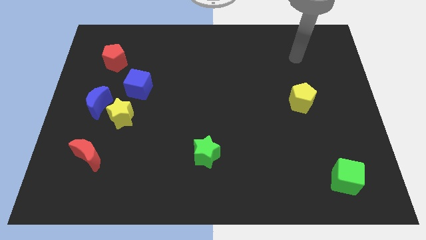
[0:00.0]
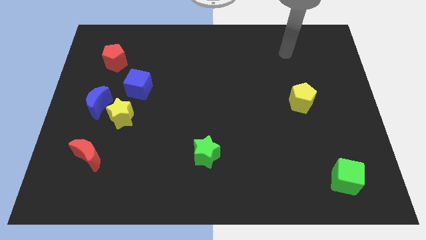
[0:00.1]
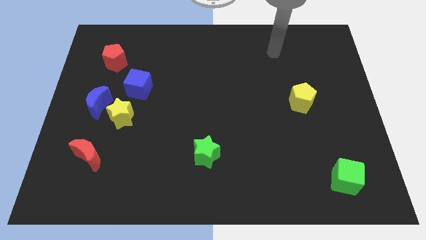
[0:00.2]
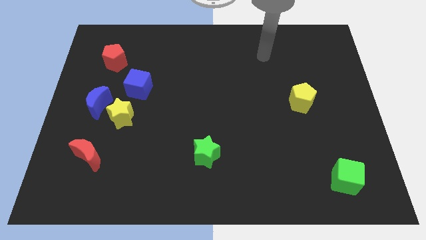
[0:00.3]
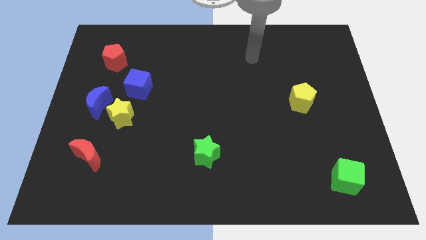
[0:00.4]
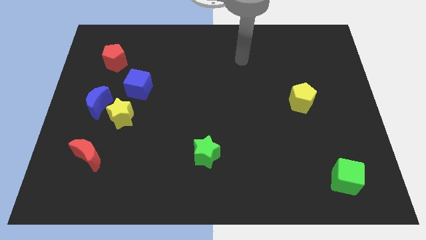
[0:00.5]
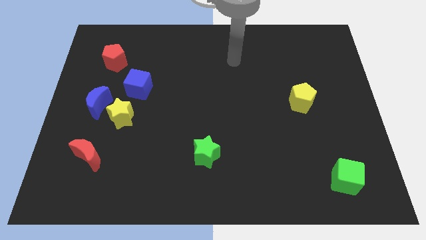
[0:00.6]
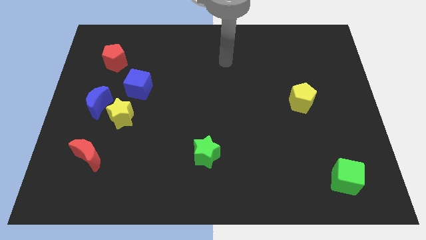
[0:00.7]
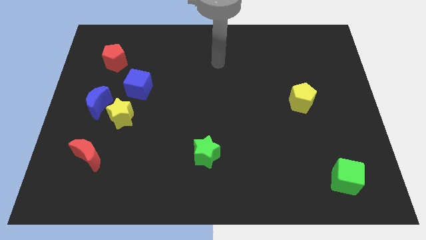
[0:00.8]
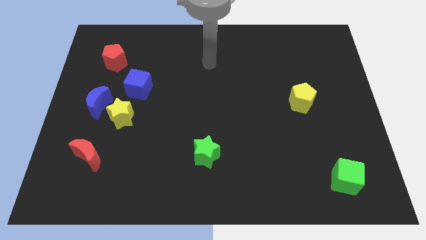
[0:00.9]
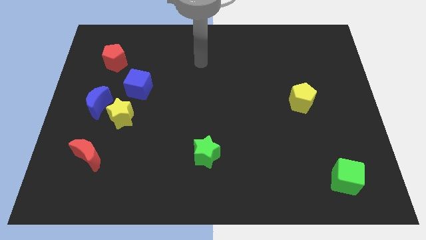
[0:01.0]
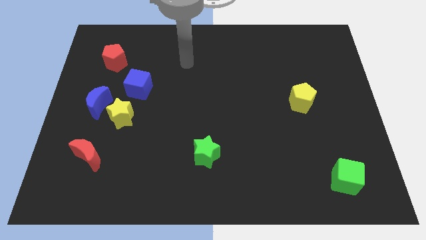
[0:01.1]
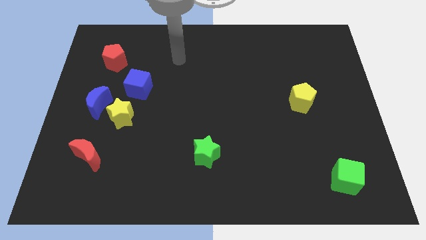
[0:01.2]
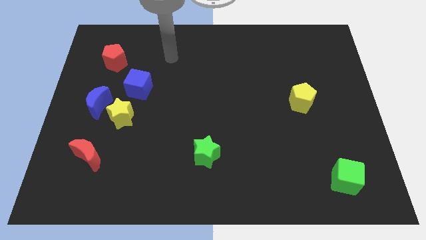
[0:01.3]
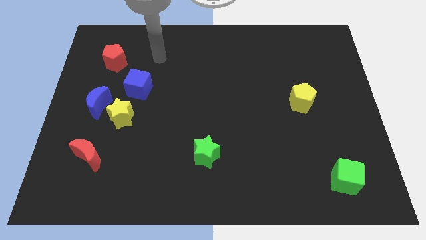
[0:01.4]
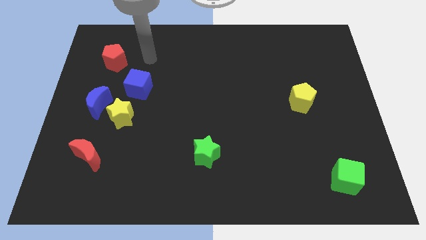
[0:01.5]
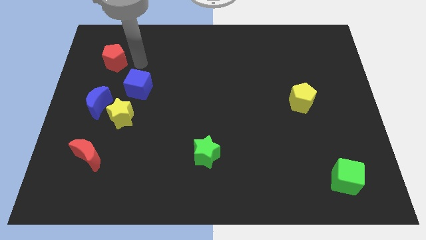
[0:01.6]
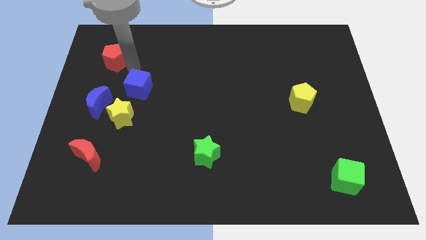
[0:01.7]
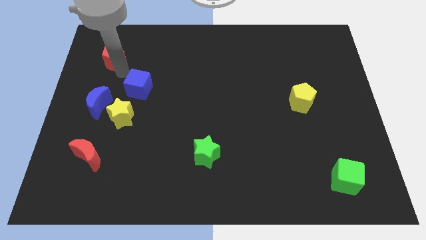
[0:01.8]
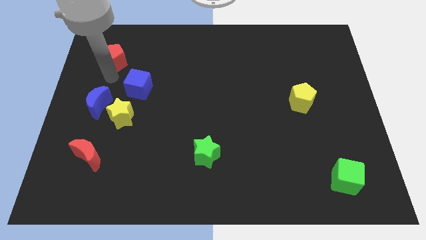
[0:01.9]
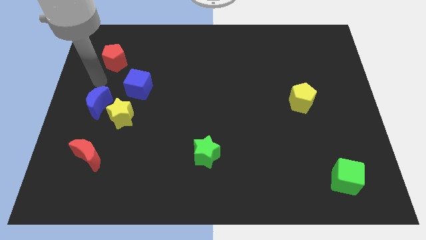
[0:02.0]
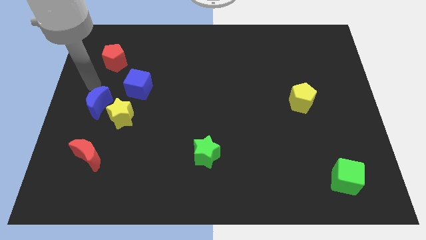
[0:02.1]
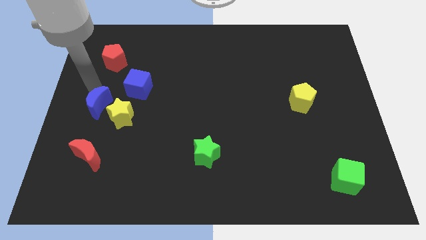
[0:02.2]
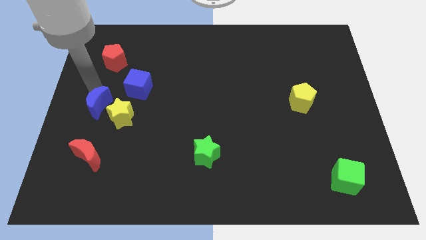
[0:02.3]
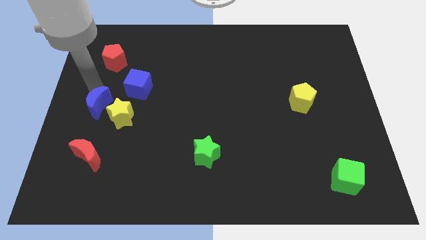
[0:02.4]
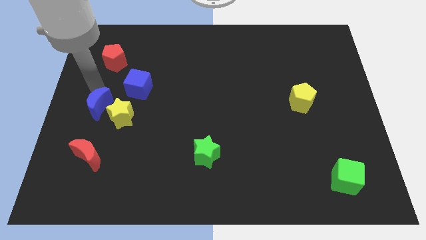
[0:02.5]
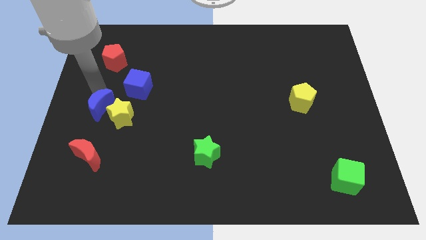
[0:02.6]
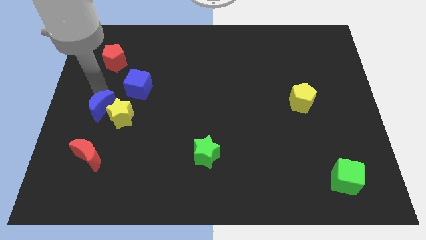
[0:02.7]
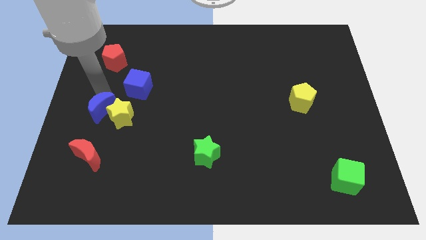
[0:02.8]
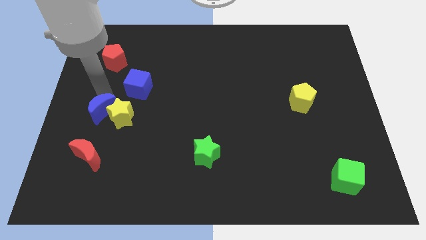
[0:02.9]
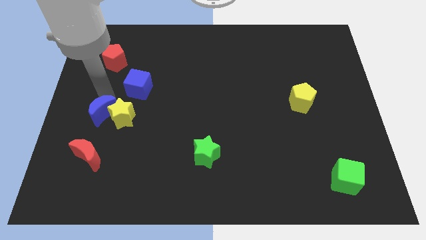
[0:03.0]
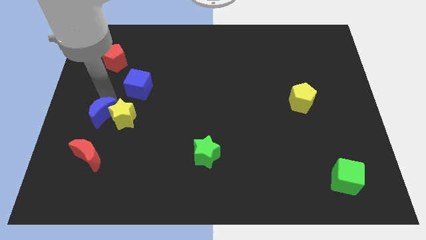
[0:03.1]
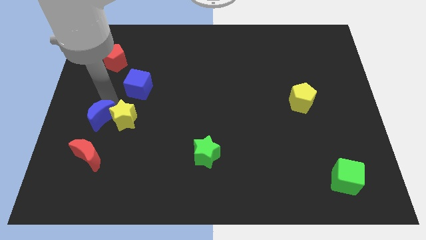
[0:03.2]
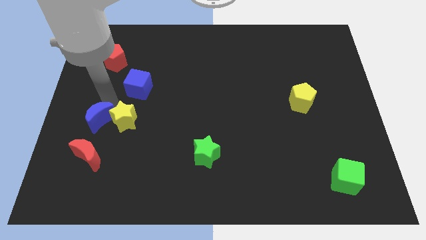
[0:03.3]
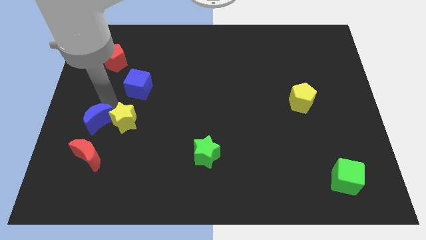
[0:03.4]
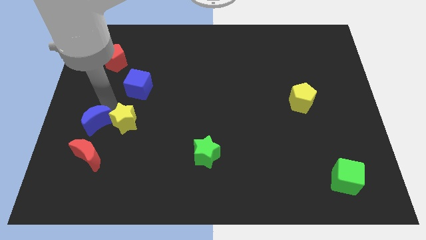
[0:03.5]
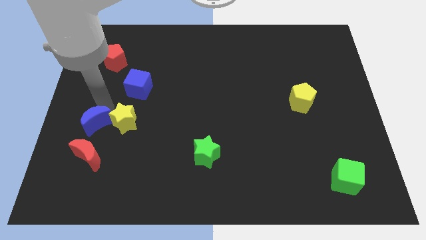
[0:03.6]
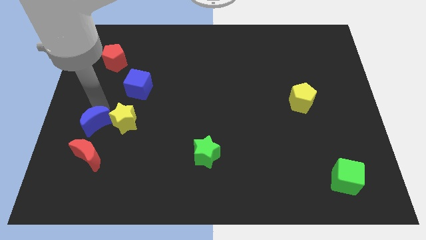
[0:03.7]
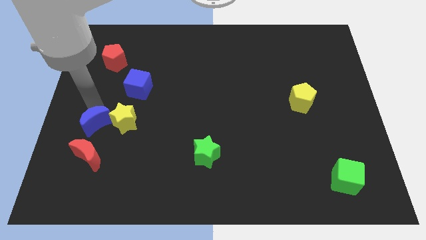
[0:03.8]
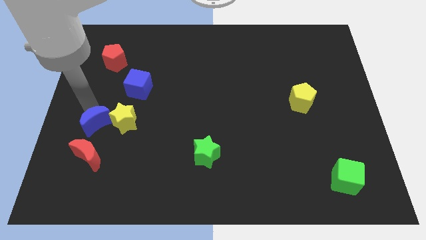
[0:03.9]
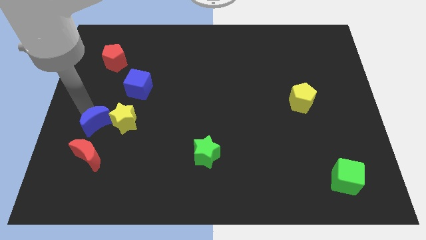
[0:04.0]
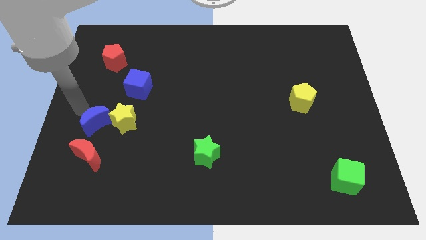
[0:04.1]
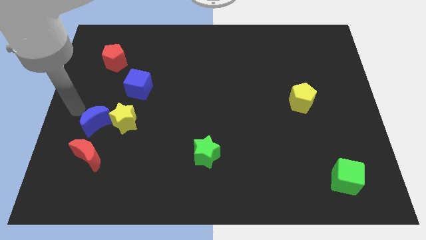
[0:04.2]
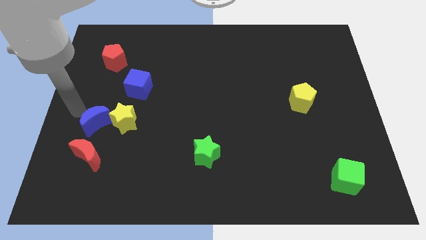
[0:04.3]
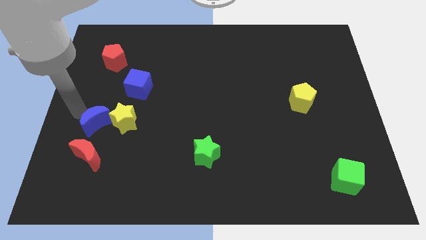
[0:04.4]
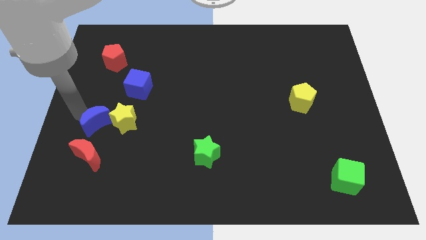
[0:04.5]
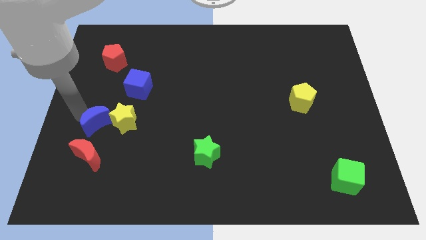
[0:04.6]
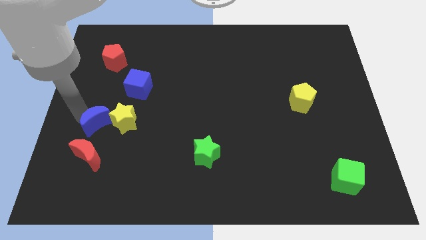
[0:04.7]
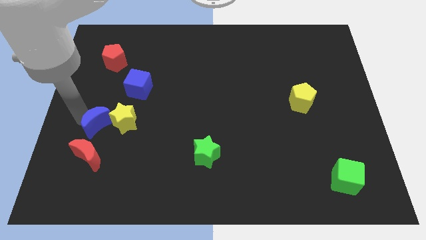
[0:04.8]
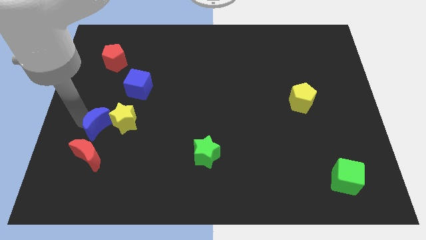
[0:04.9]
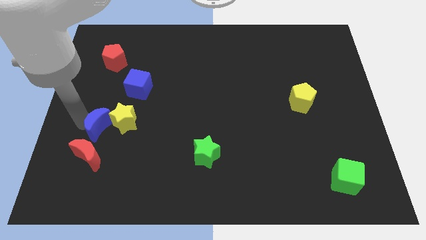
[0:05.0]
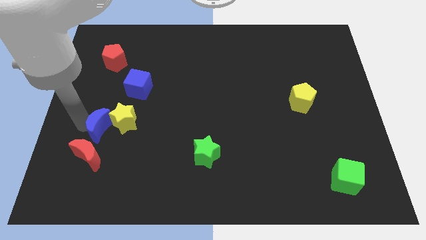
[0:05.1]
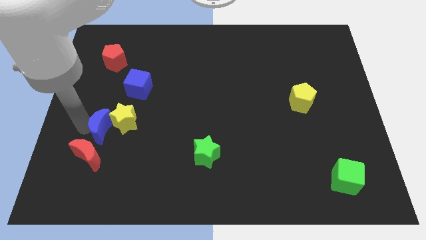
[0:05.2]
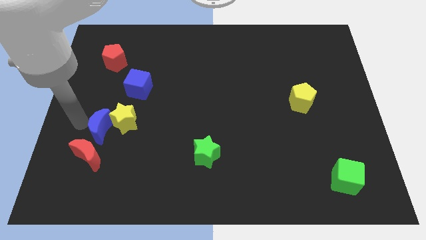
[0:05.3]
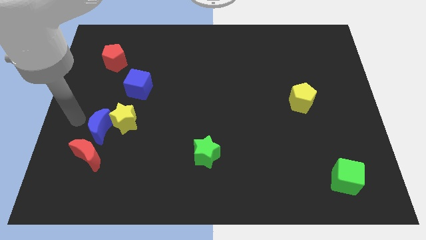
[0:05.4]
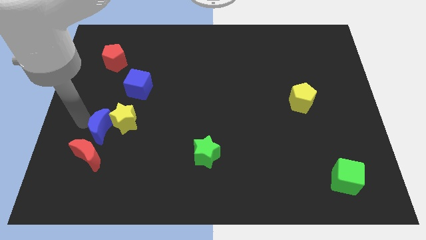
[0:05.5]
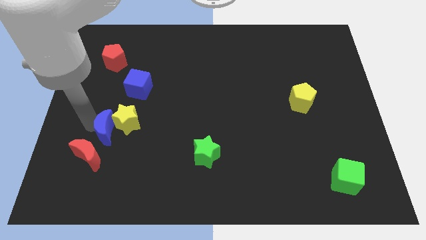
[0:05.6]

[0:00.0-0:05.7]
slightly slide the blue moon down and then to the right

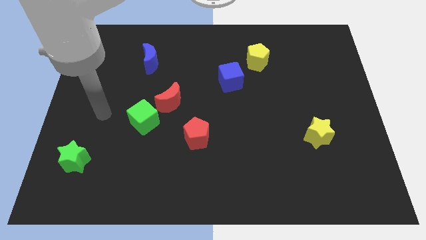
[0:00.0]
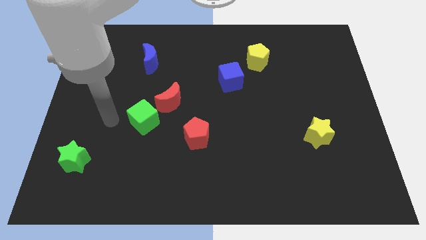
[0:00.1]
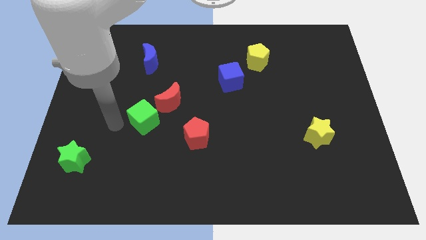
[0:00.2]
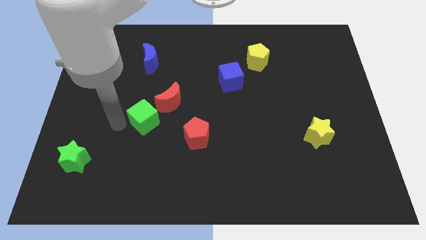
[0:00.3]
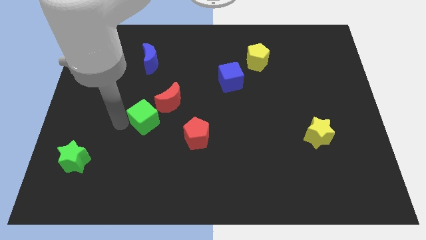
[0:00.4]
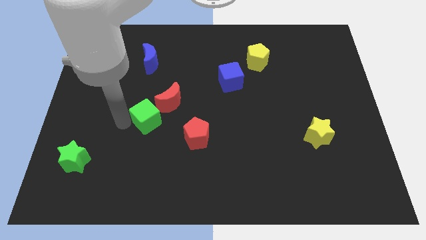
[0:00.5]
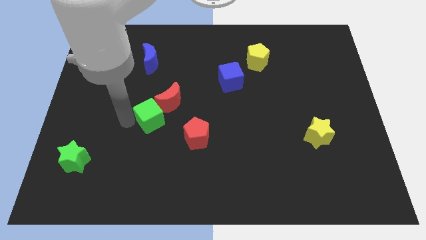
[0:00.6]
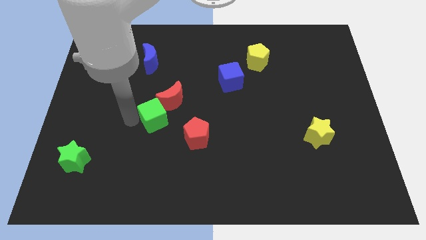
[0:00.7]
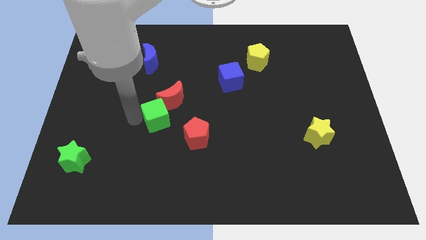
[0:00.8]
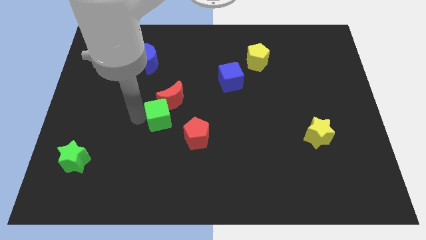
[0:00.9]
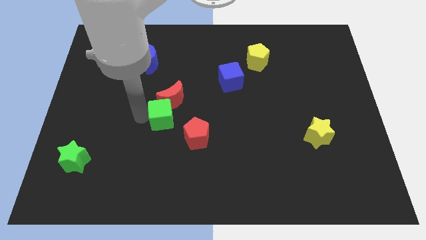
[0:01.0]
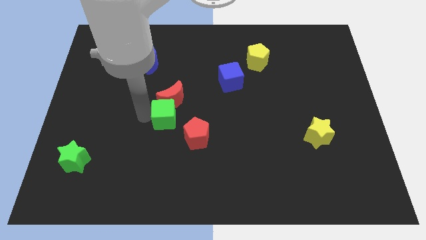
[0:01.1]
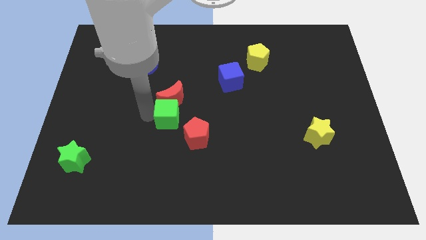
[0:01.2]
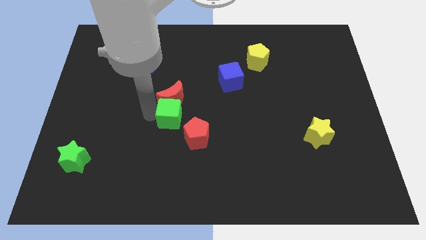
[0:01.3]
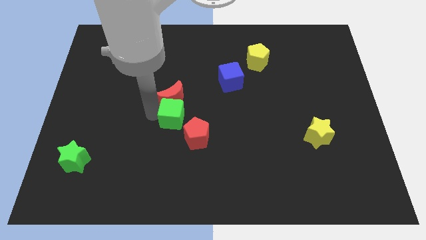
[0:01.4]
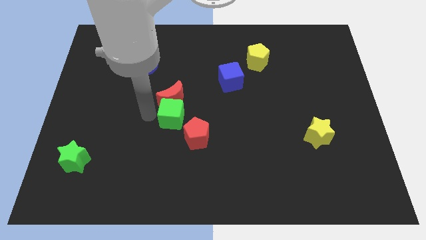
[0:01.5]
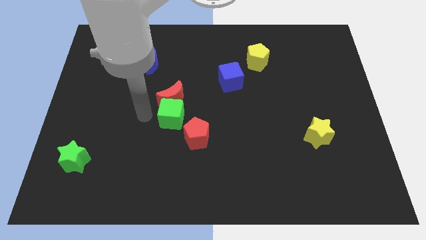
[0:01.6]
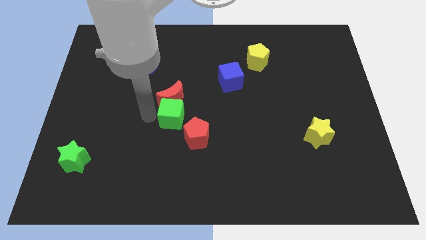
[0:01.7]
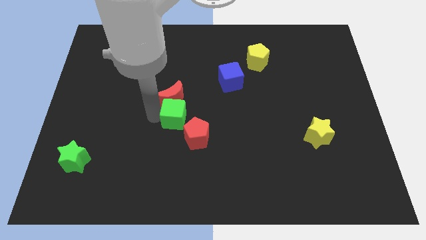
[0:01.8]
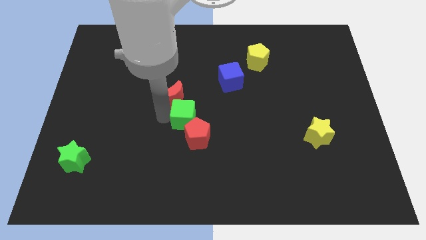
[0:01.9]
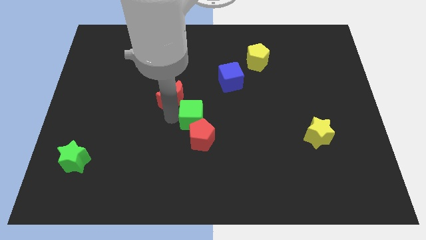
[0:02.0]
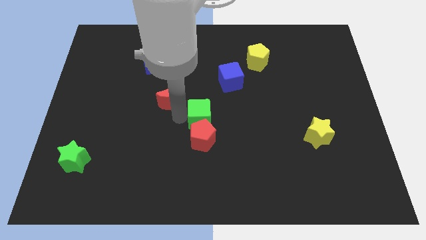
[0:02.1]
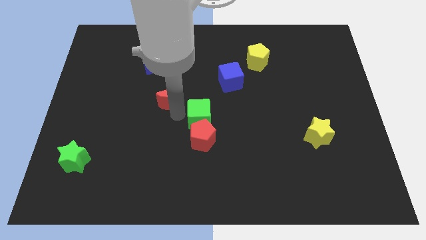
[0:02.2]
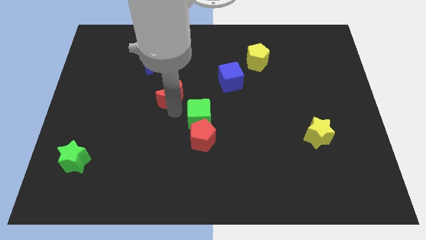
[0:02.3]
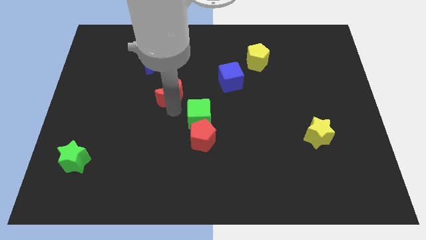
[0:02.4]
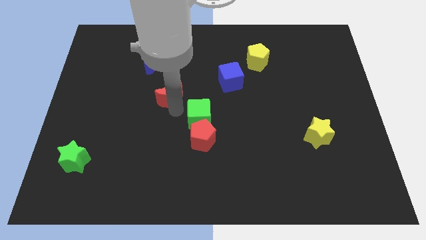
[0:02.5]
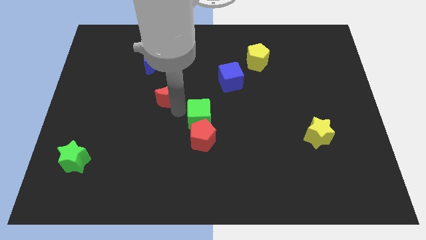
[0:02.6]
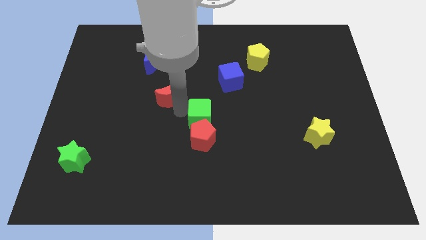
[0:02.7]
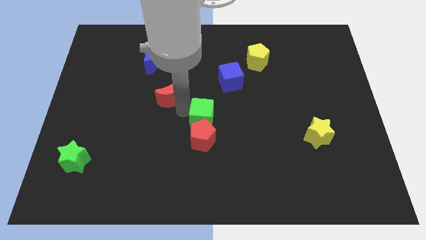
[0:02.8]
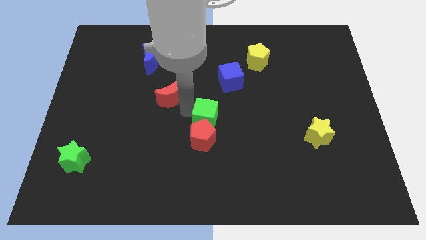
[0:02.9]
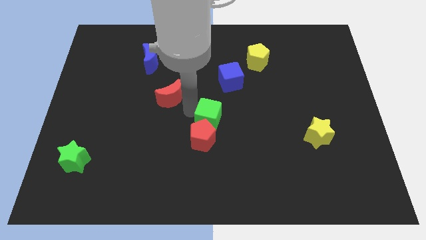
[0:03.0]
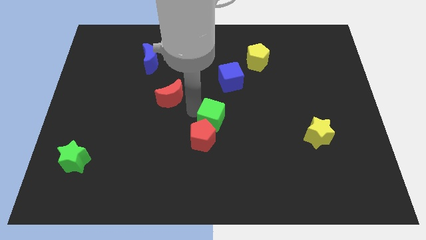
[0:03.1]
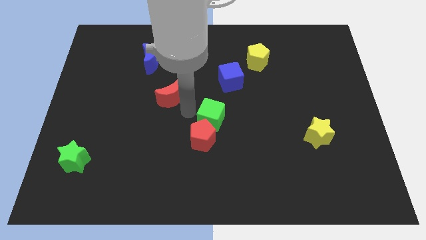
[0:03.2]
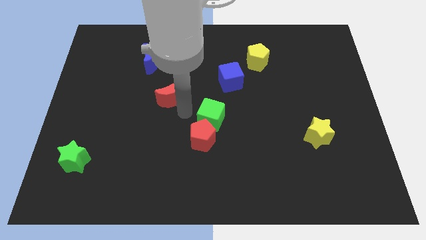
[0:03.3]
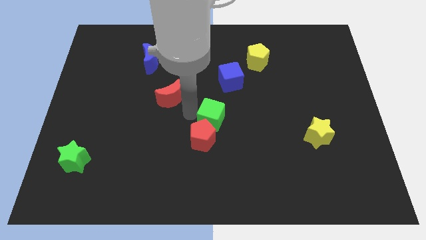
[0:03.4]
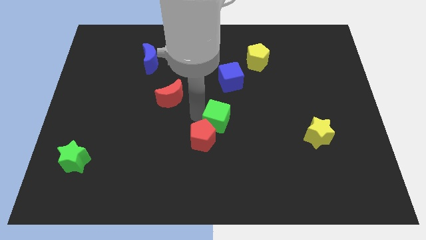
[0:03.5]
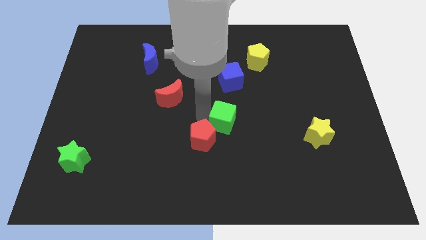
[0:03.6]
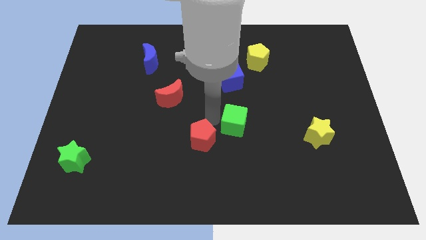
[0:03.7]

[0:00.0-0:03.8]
move the green cube to the right
